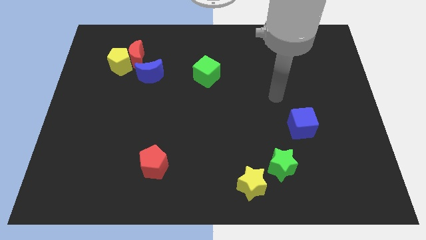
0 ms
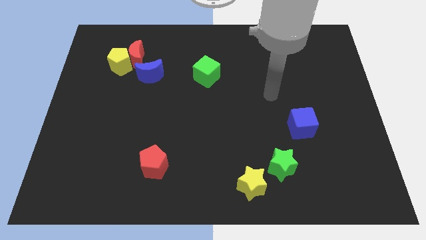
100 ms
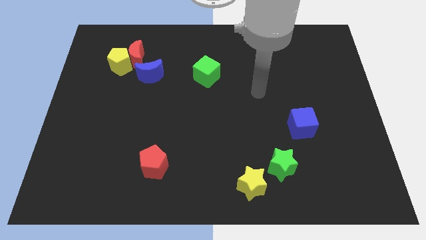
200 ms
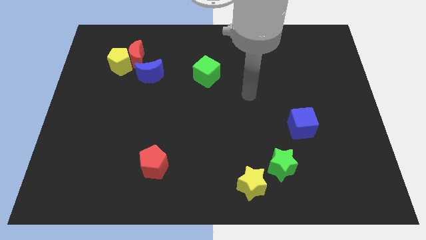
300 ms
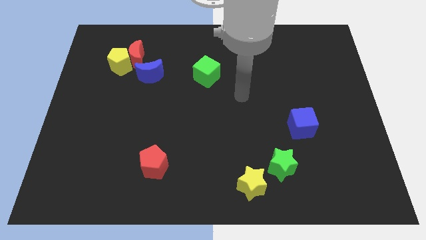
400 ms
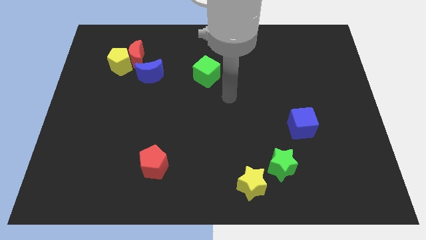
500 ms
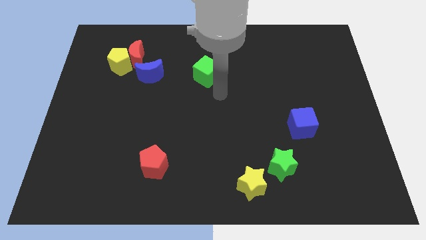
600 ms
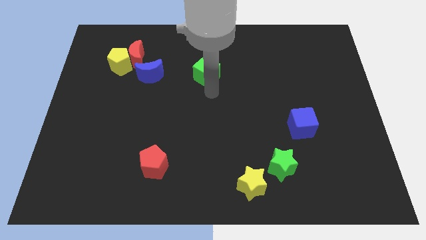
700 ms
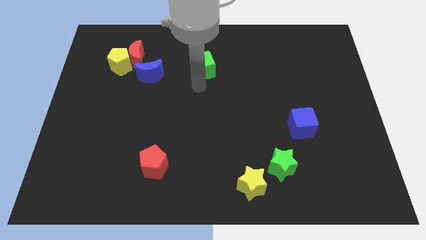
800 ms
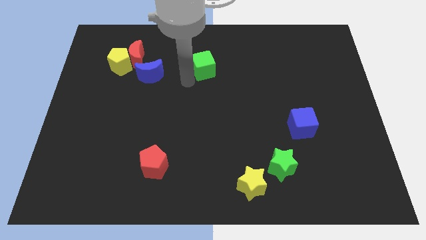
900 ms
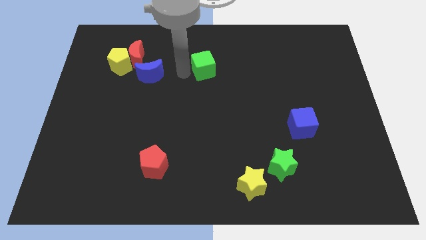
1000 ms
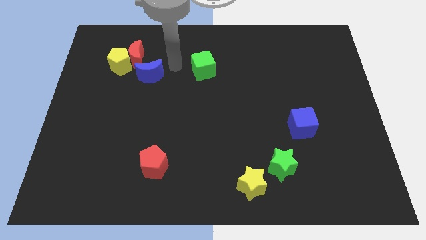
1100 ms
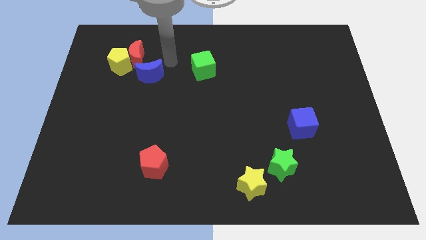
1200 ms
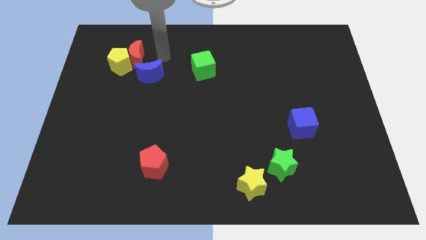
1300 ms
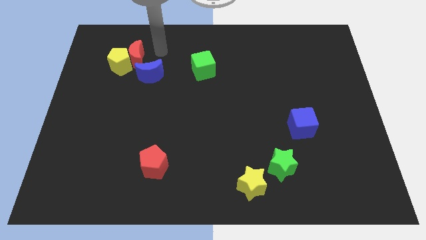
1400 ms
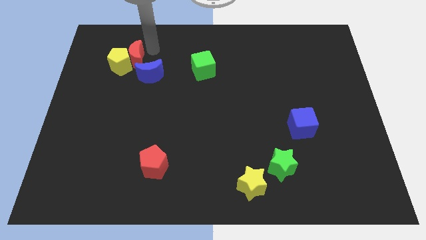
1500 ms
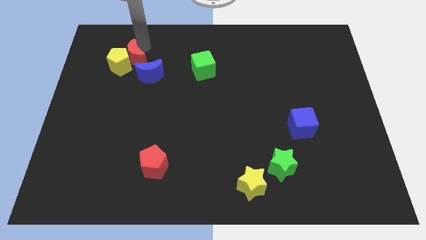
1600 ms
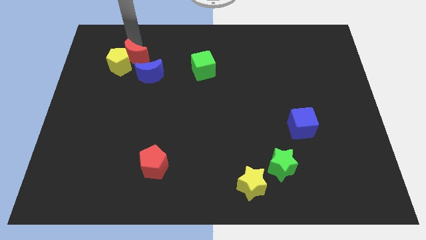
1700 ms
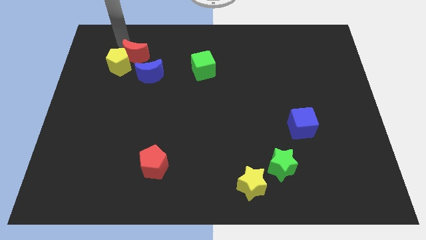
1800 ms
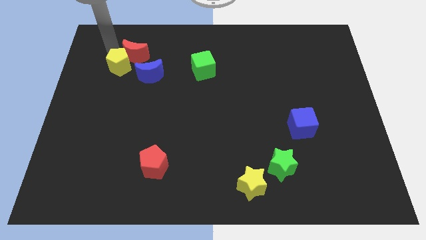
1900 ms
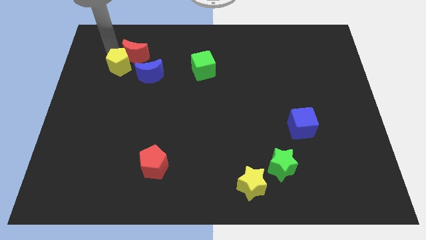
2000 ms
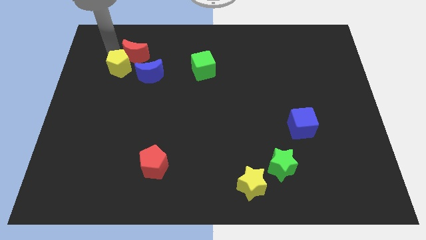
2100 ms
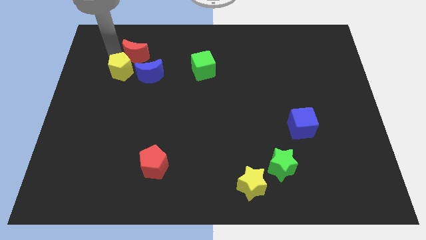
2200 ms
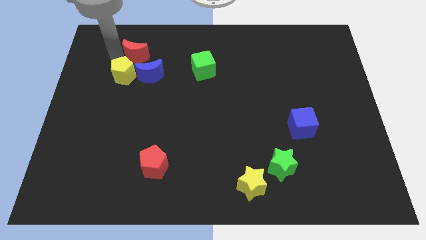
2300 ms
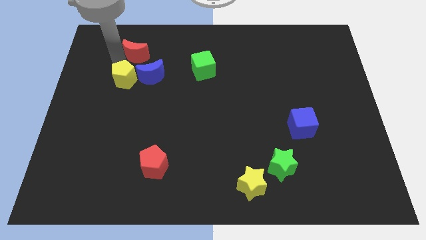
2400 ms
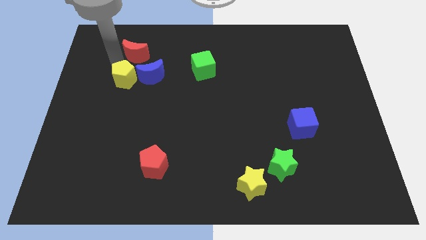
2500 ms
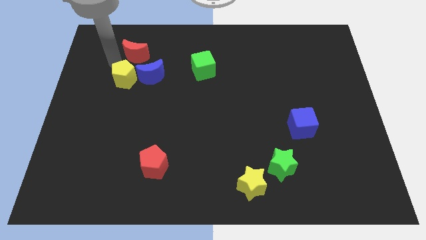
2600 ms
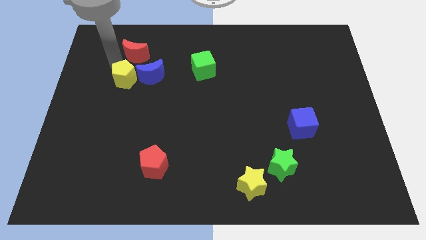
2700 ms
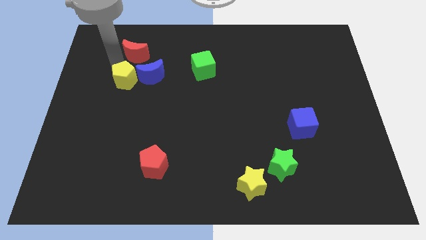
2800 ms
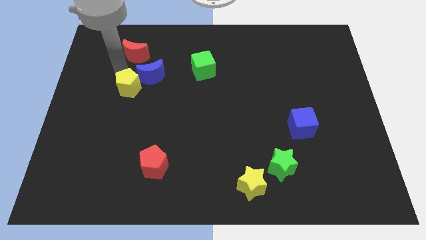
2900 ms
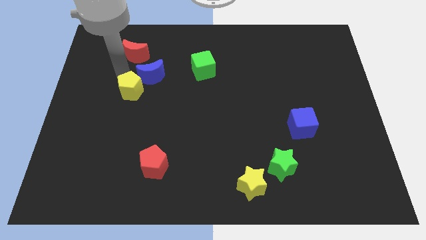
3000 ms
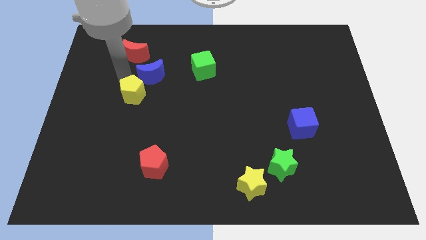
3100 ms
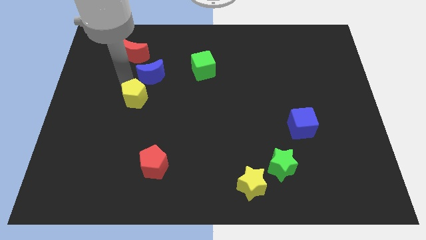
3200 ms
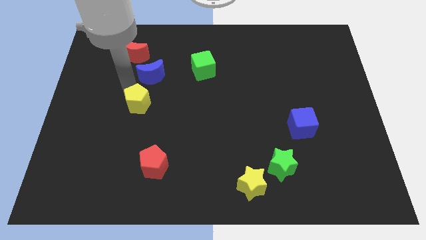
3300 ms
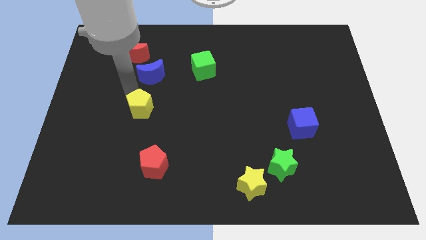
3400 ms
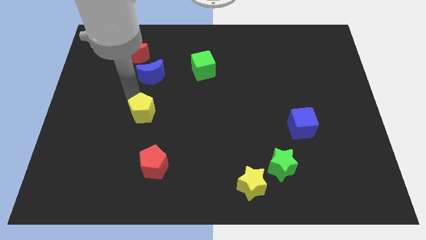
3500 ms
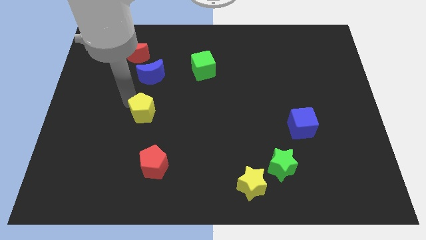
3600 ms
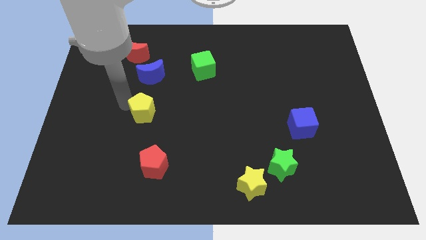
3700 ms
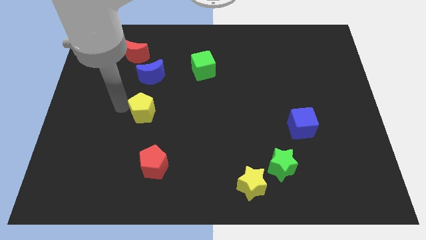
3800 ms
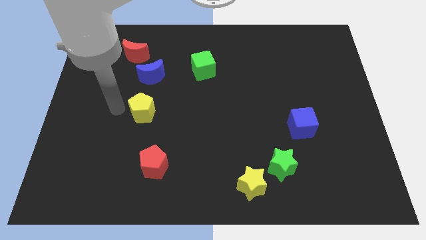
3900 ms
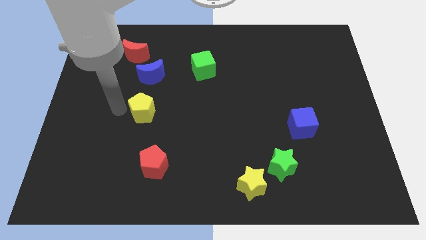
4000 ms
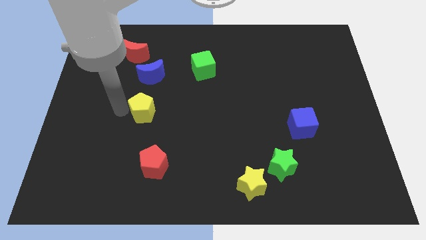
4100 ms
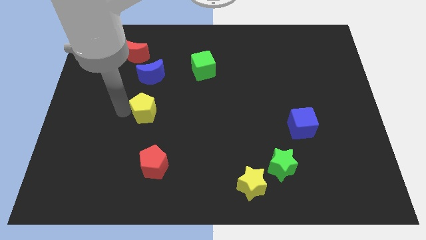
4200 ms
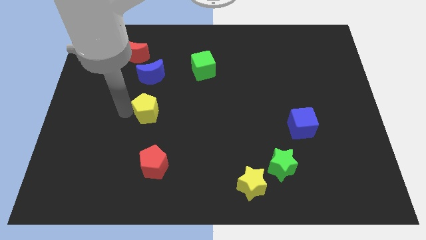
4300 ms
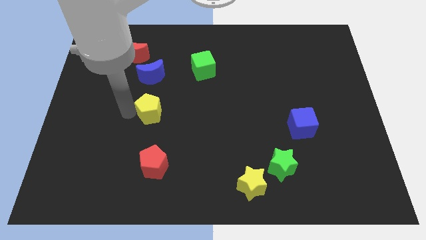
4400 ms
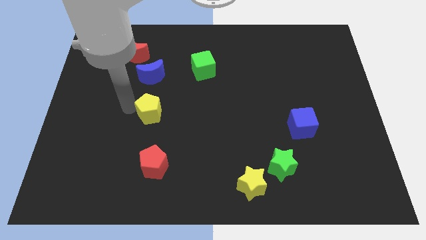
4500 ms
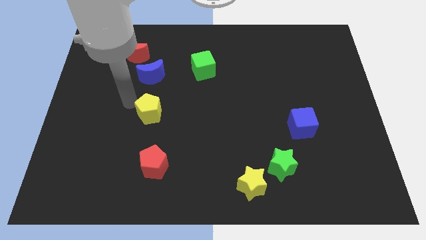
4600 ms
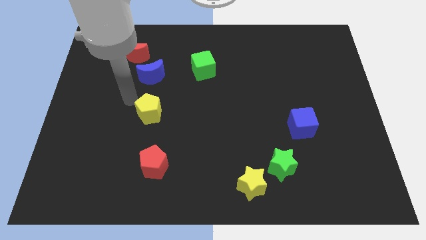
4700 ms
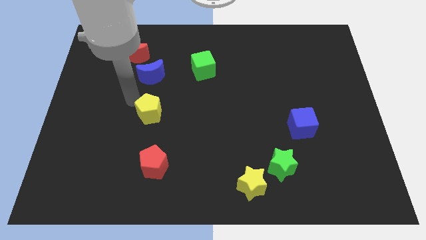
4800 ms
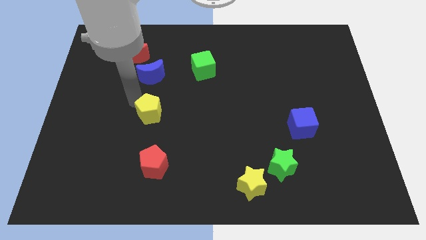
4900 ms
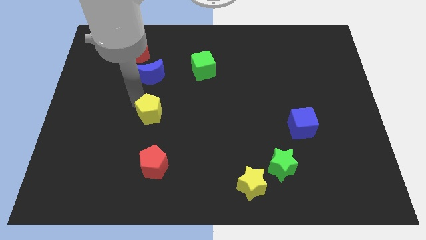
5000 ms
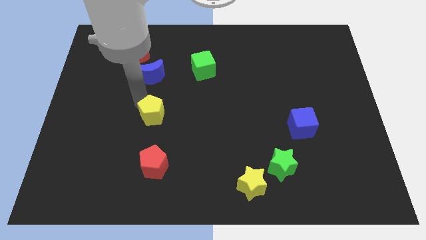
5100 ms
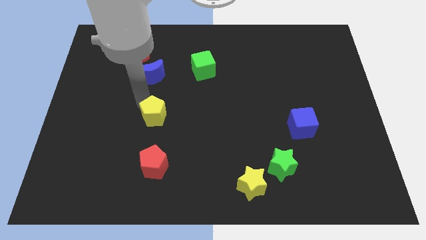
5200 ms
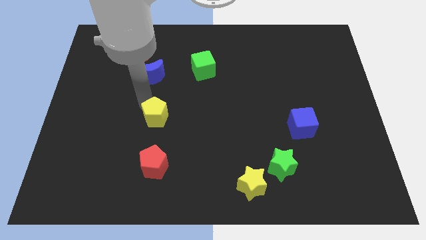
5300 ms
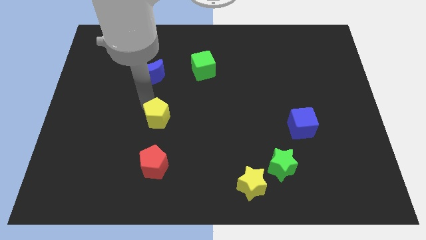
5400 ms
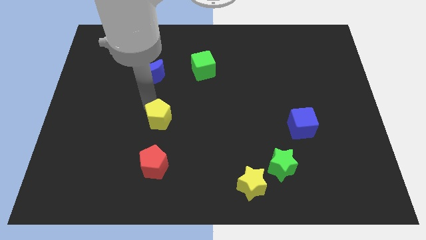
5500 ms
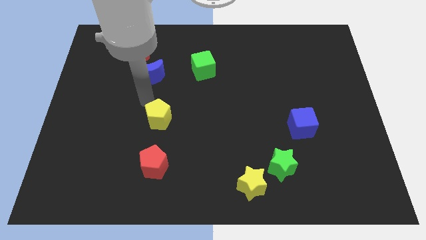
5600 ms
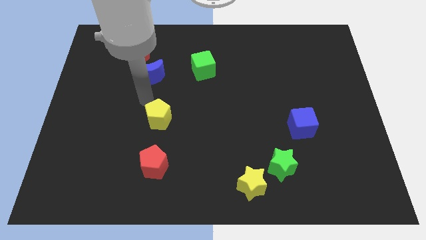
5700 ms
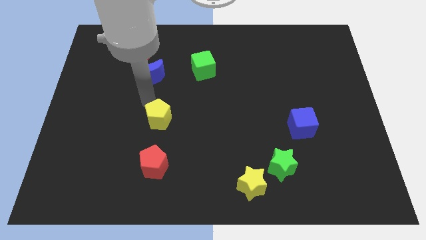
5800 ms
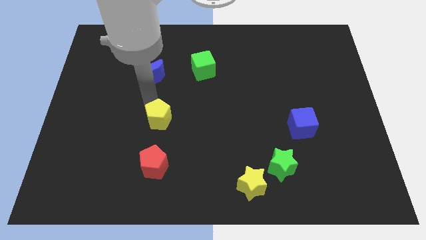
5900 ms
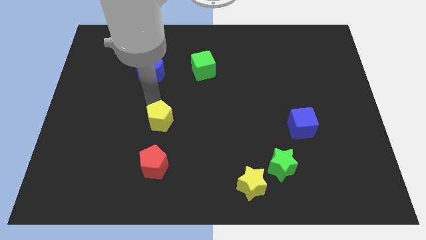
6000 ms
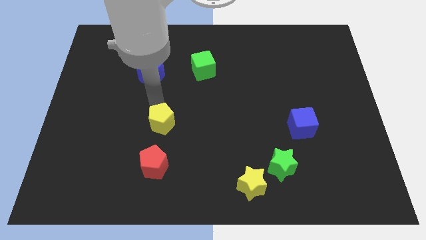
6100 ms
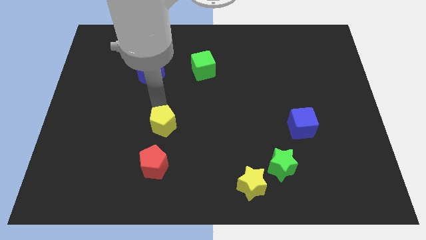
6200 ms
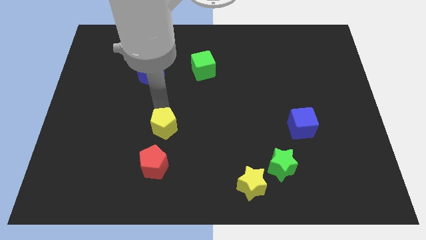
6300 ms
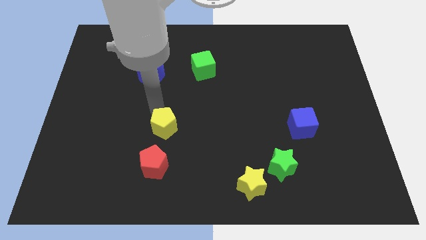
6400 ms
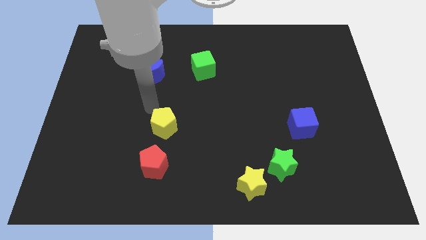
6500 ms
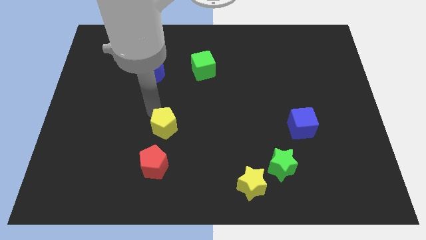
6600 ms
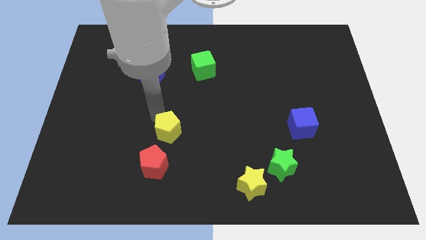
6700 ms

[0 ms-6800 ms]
slide the yellow pentagon to the top right of the red pentagon

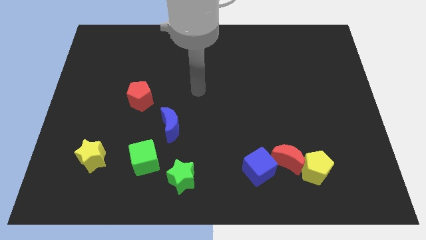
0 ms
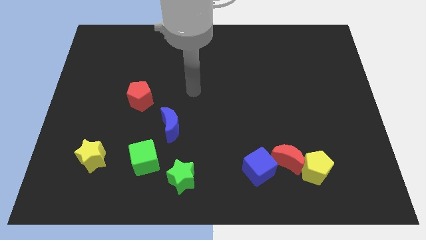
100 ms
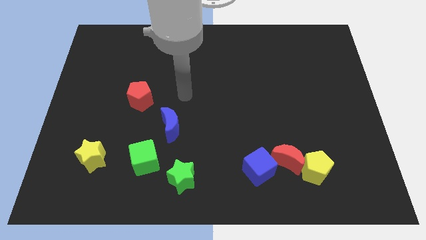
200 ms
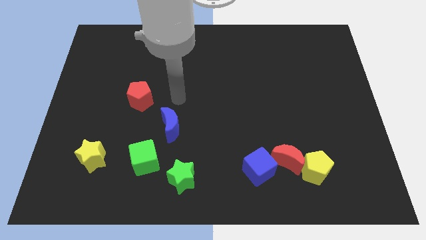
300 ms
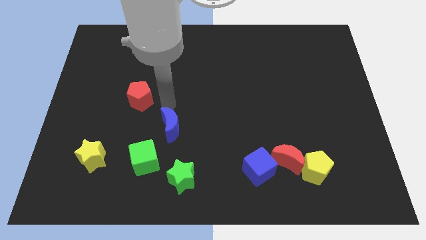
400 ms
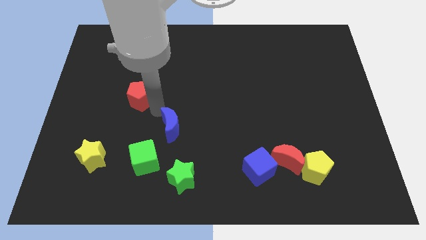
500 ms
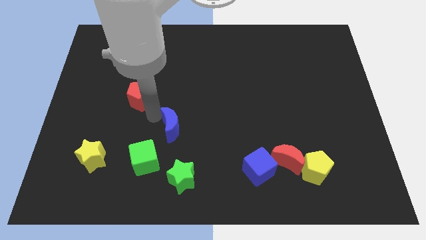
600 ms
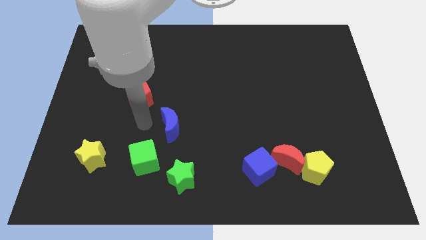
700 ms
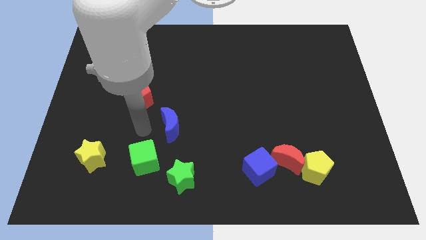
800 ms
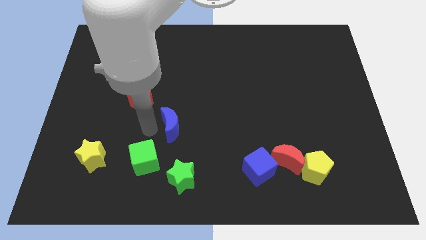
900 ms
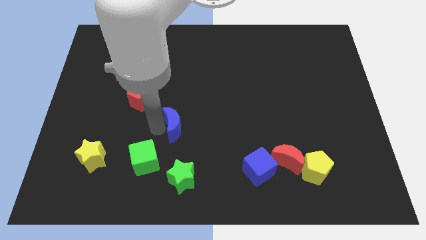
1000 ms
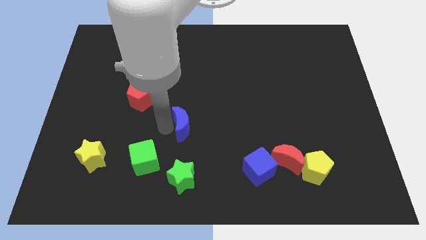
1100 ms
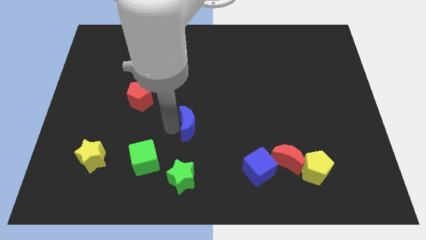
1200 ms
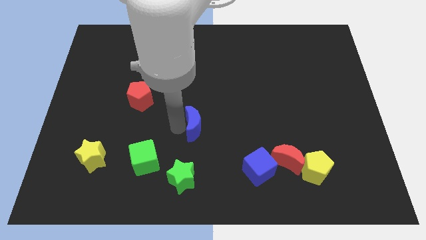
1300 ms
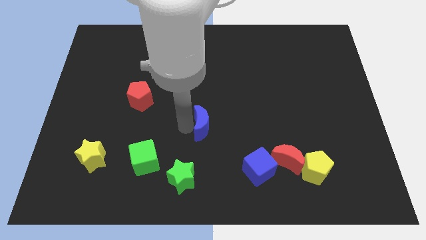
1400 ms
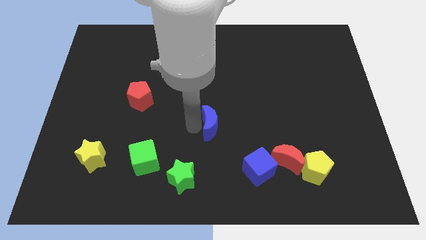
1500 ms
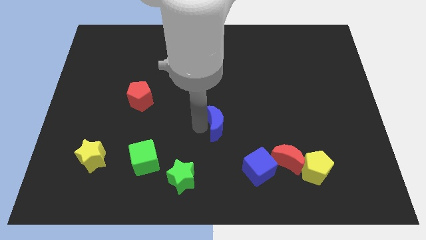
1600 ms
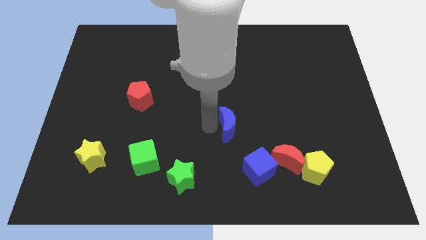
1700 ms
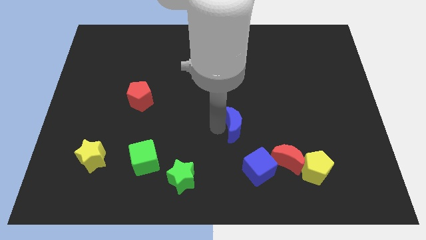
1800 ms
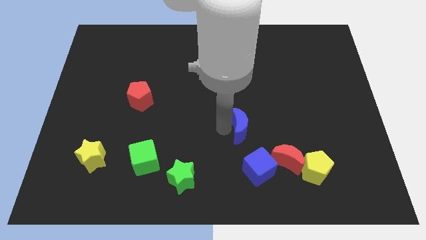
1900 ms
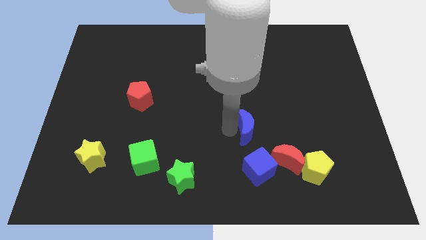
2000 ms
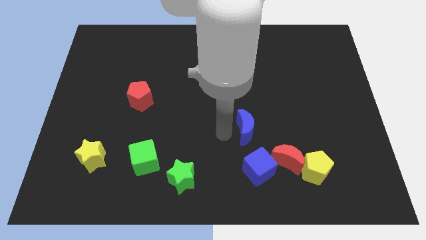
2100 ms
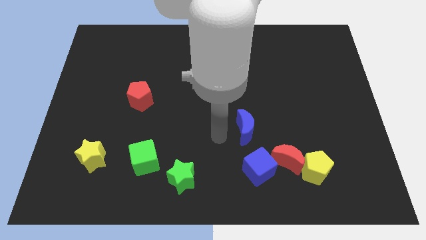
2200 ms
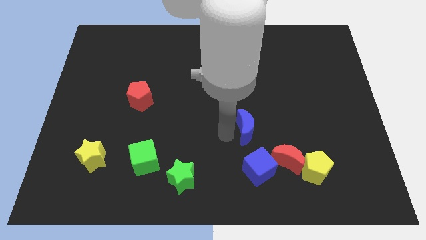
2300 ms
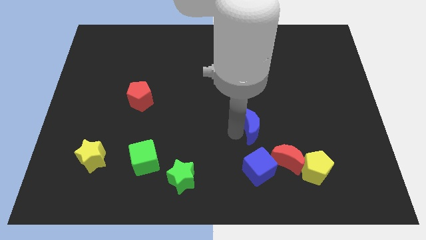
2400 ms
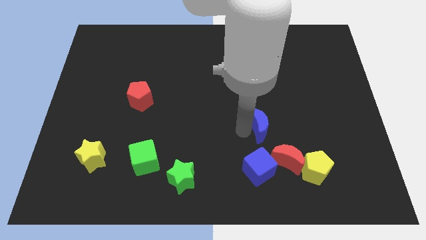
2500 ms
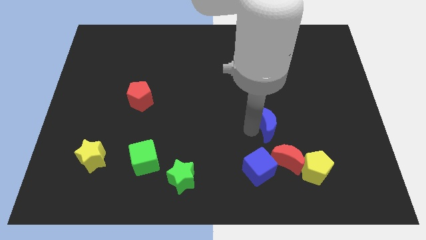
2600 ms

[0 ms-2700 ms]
push the blue moon to the top of the red moon
